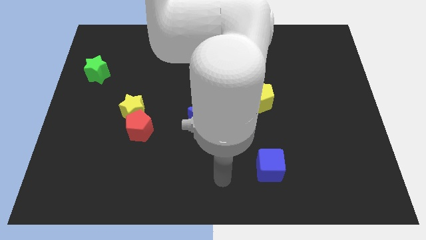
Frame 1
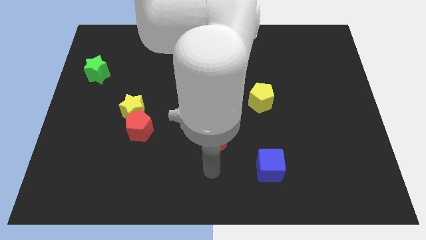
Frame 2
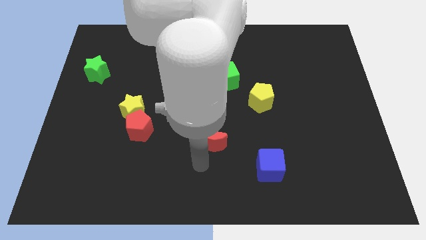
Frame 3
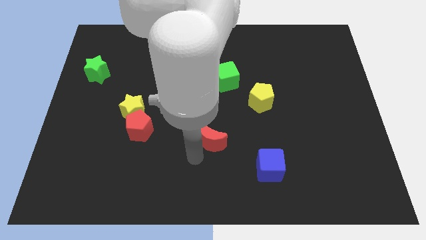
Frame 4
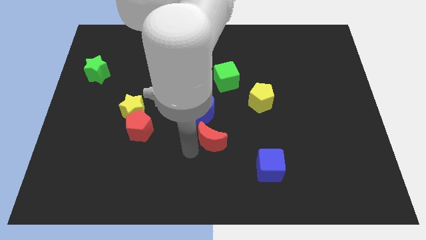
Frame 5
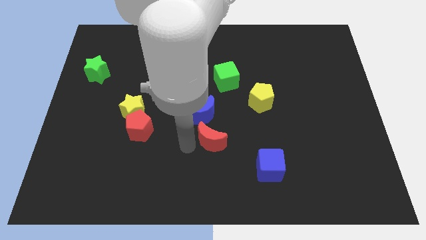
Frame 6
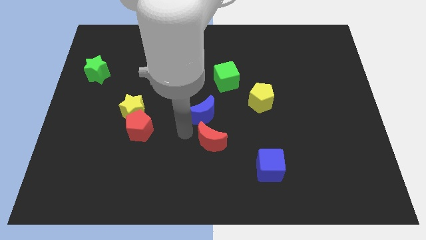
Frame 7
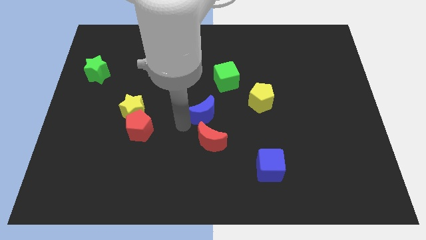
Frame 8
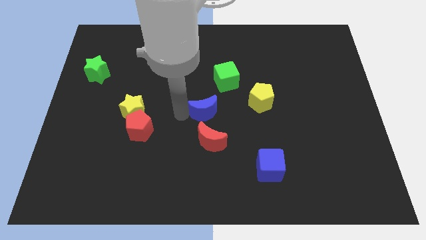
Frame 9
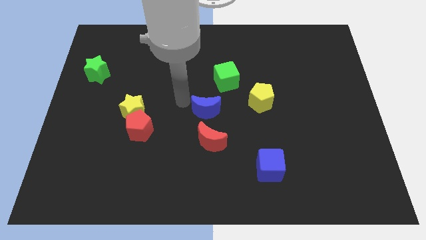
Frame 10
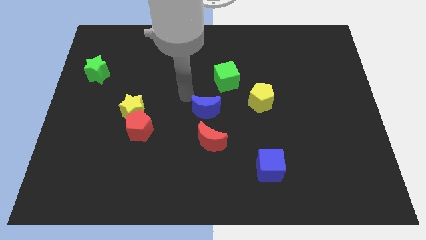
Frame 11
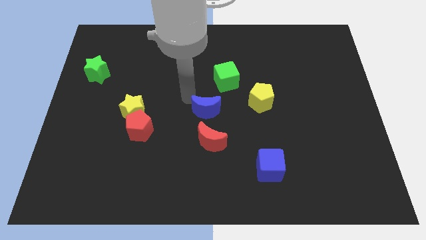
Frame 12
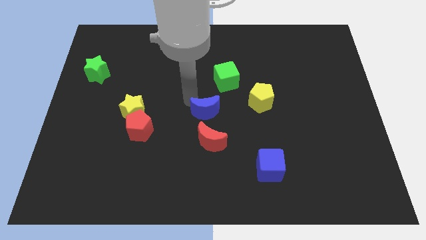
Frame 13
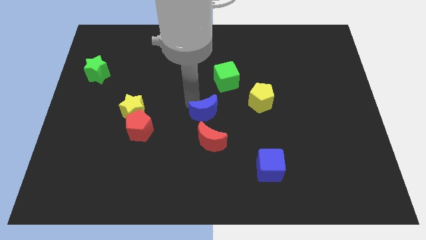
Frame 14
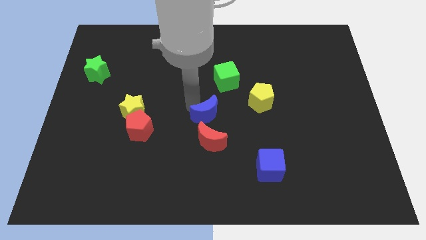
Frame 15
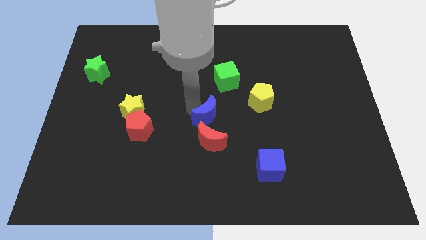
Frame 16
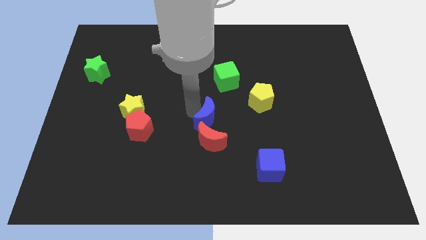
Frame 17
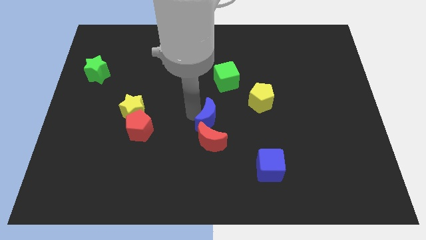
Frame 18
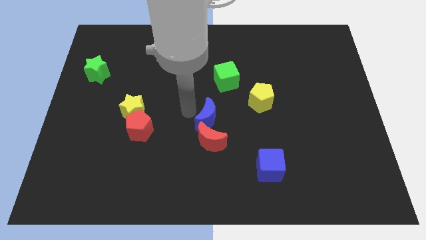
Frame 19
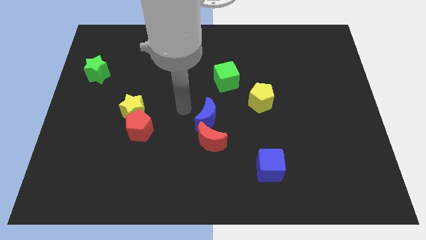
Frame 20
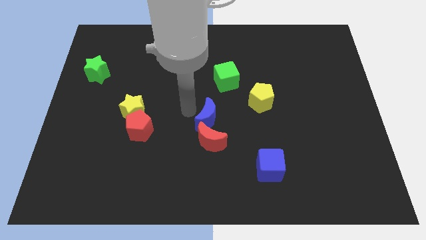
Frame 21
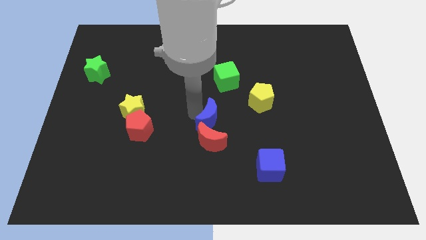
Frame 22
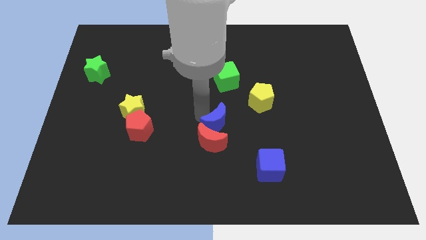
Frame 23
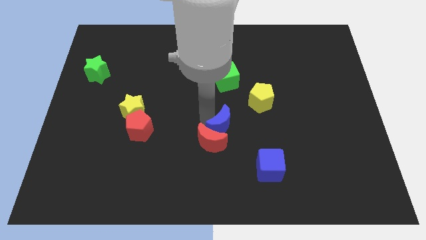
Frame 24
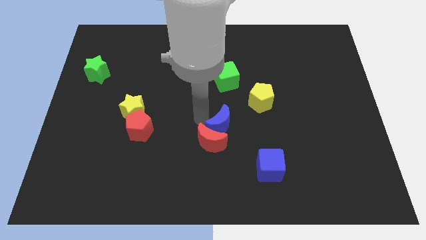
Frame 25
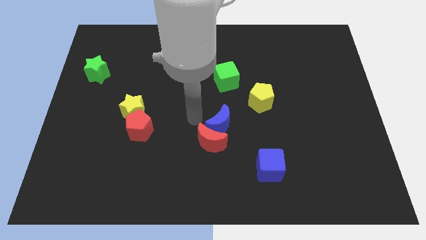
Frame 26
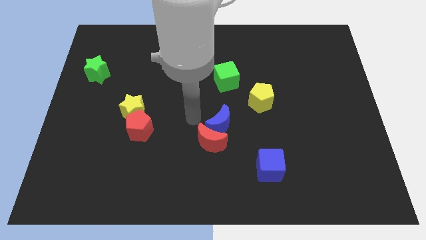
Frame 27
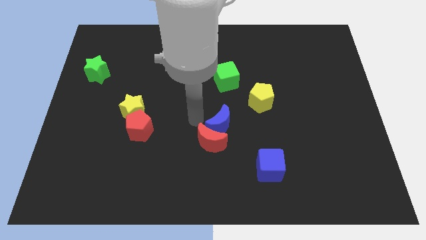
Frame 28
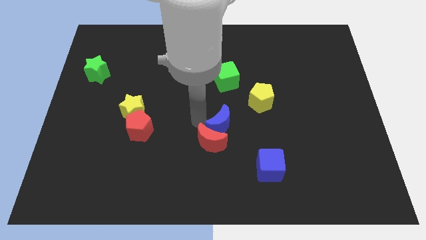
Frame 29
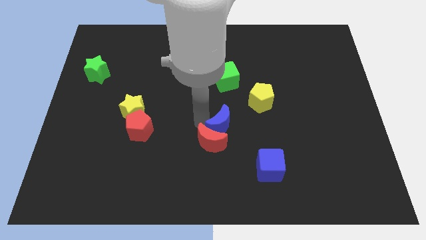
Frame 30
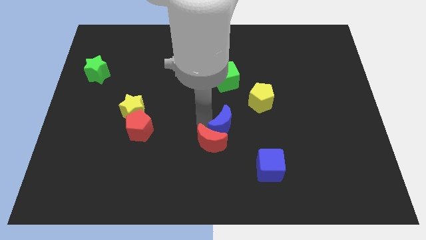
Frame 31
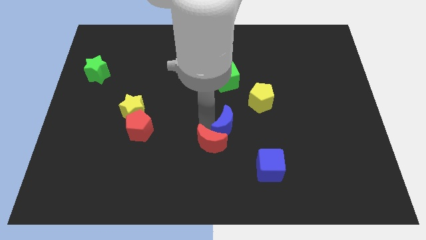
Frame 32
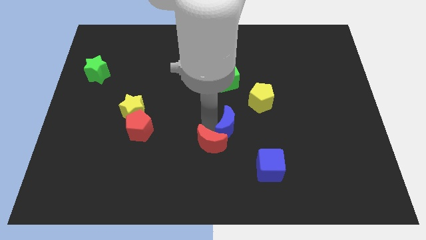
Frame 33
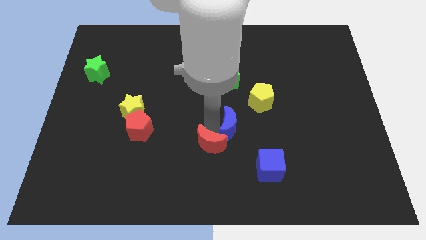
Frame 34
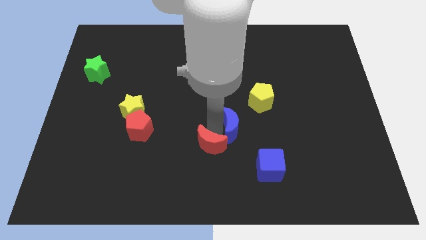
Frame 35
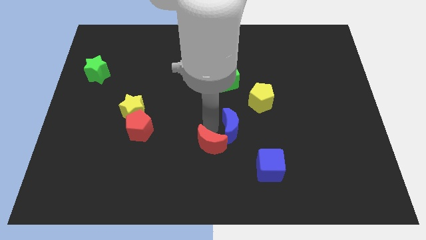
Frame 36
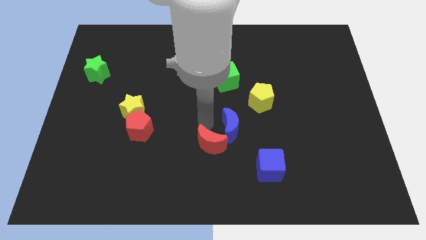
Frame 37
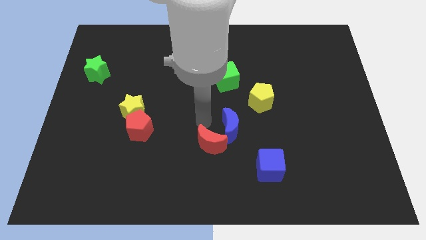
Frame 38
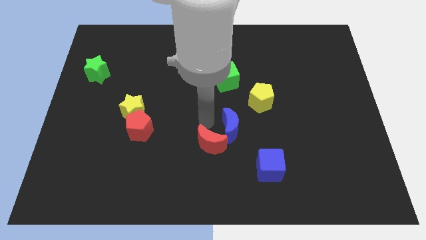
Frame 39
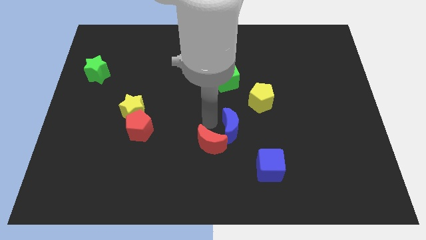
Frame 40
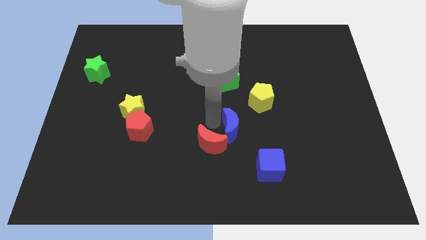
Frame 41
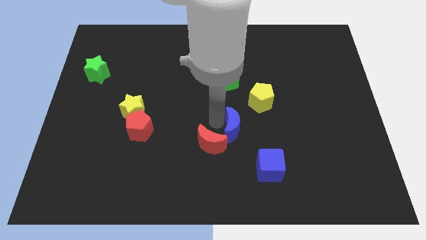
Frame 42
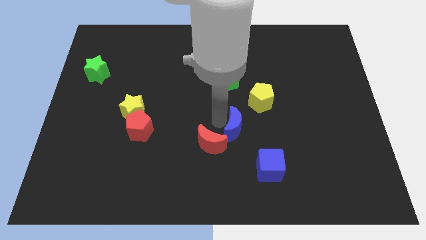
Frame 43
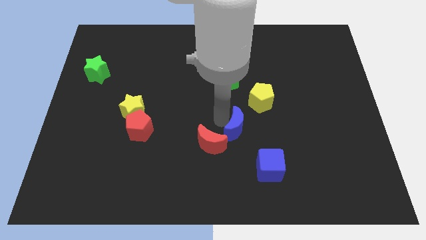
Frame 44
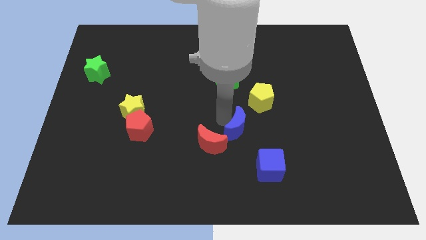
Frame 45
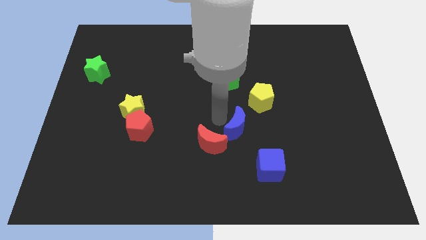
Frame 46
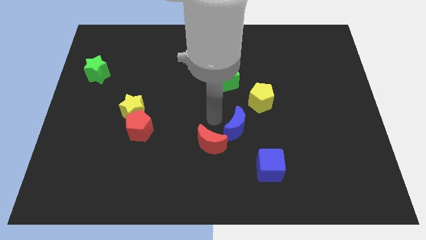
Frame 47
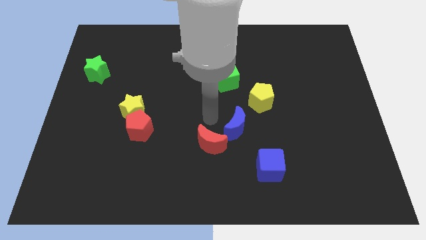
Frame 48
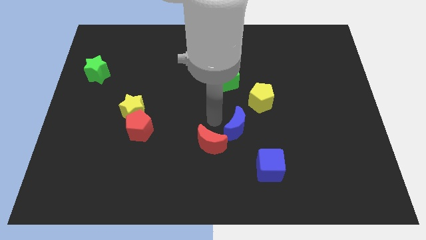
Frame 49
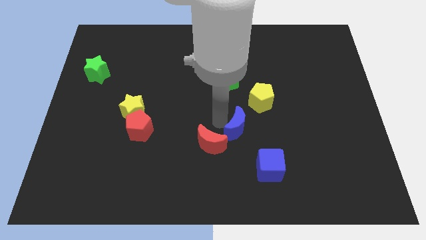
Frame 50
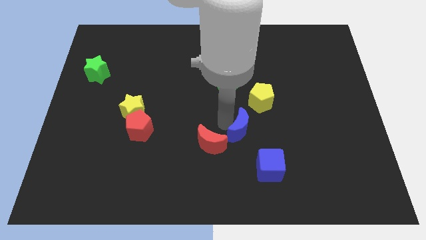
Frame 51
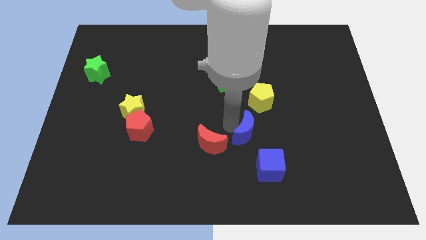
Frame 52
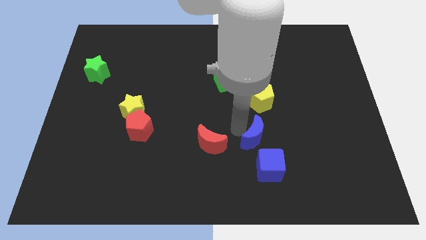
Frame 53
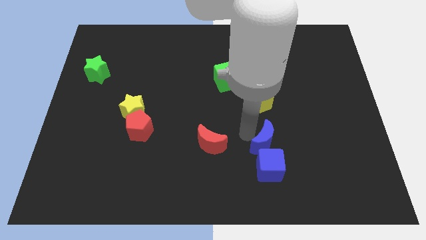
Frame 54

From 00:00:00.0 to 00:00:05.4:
slide the blue moon diagonally up and to the right of the blue cube

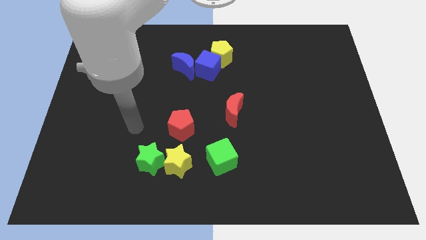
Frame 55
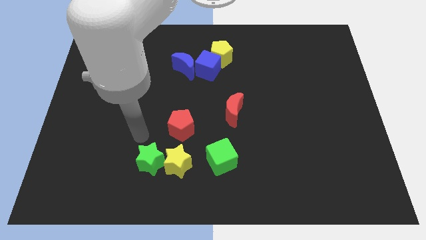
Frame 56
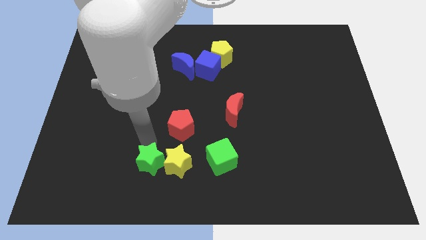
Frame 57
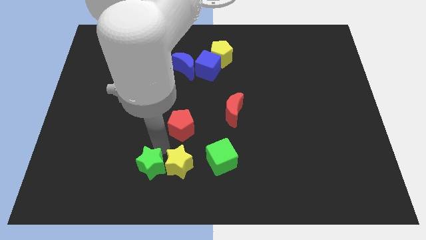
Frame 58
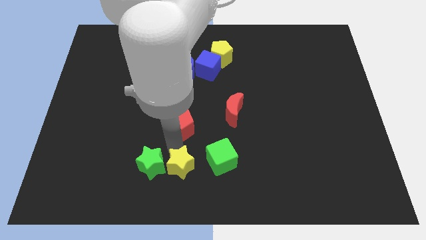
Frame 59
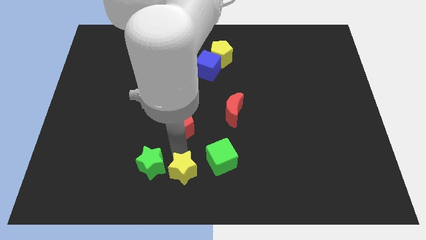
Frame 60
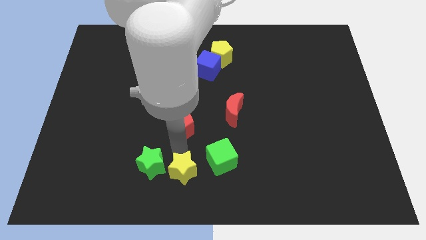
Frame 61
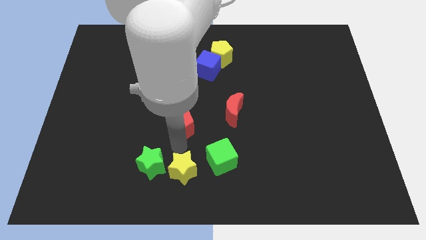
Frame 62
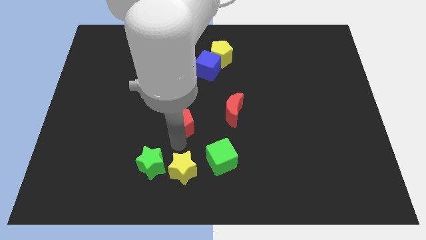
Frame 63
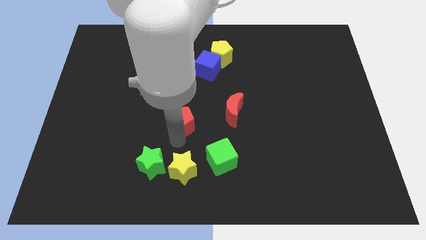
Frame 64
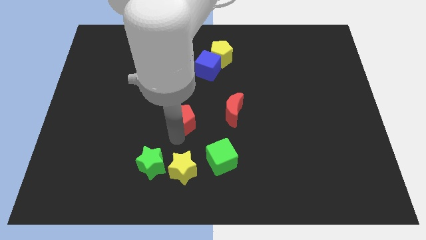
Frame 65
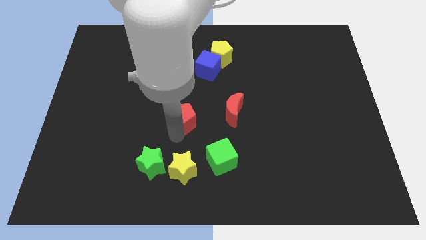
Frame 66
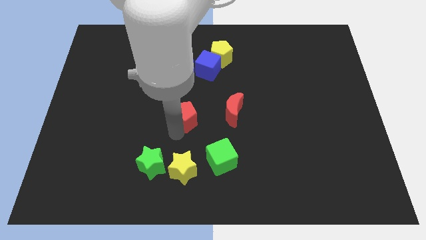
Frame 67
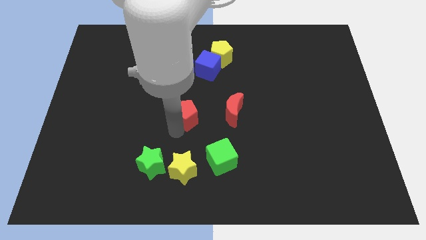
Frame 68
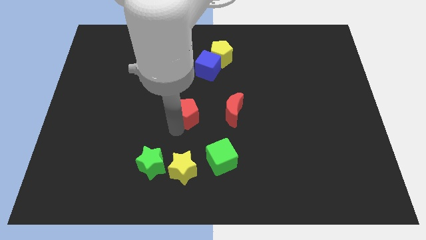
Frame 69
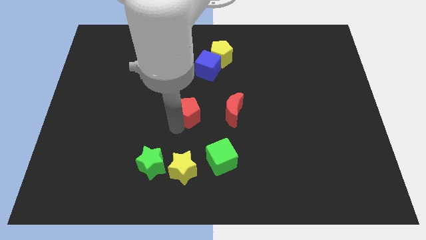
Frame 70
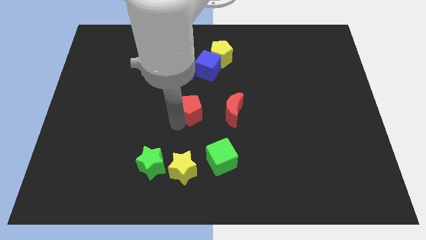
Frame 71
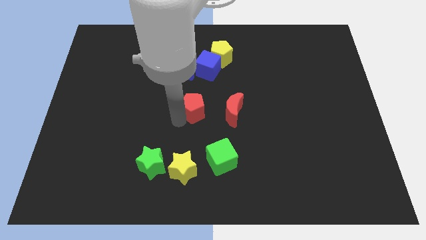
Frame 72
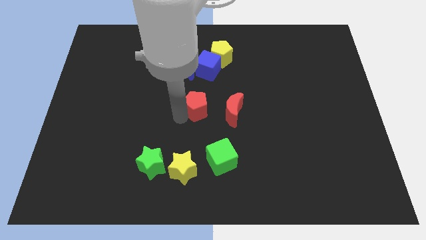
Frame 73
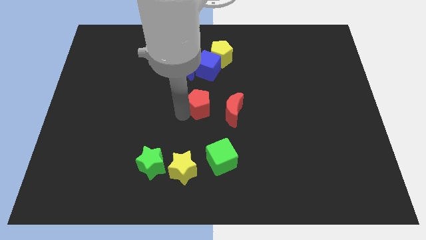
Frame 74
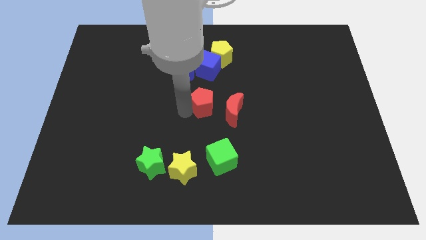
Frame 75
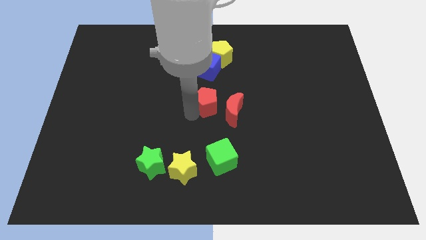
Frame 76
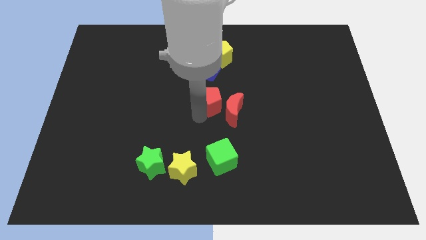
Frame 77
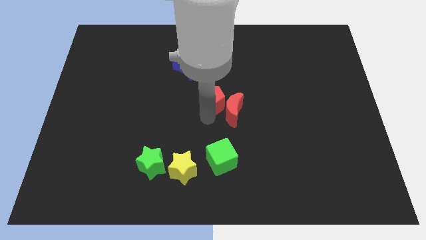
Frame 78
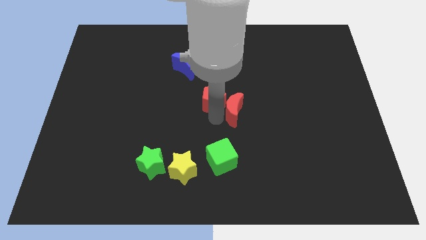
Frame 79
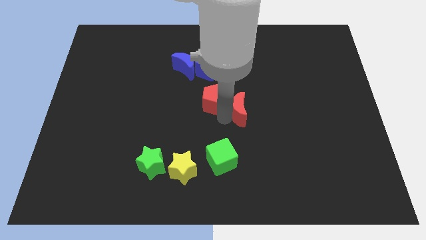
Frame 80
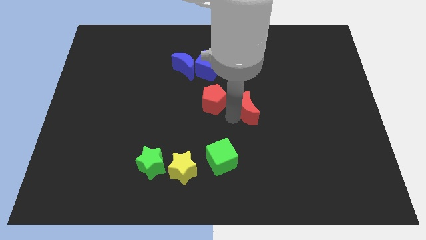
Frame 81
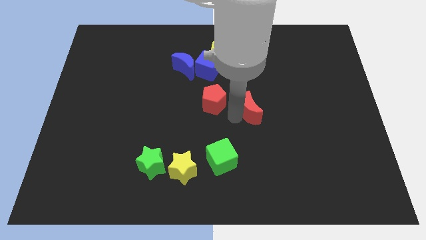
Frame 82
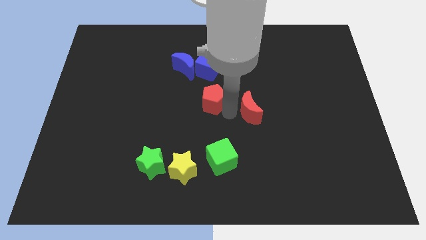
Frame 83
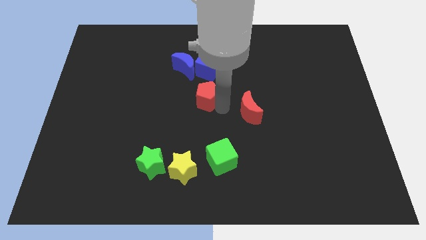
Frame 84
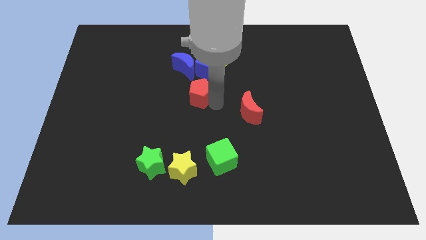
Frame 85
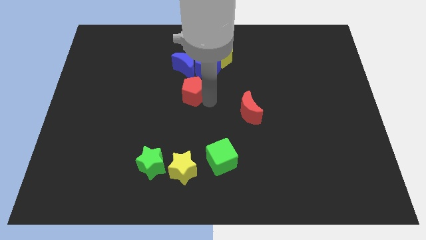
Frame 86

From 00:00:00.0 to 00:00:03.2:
put the red pentagon diagonally down and to the left of the blue cube
